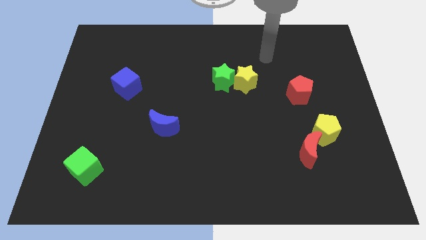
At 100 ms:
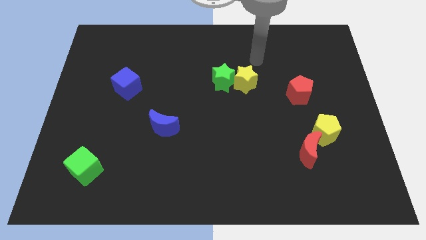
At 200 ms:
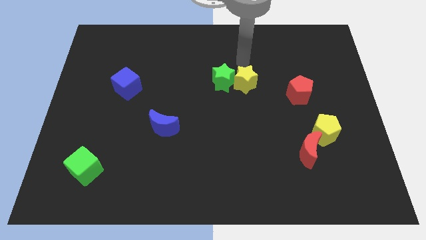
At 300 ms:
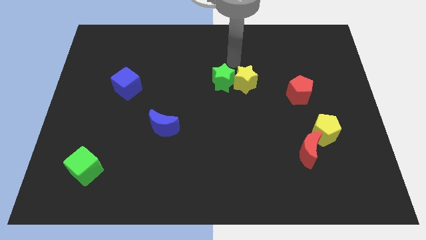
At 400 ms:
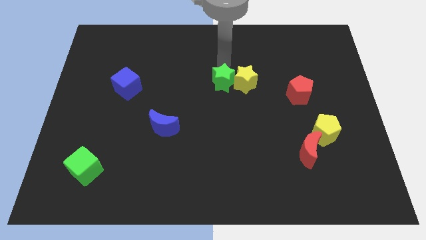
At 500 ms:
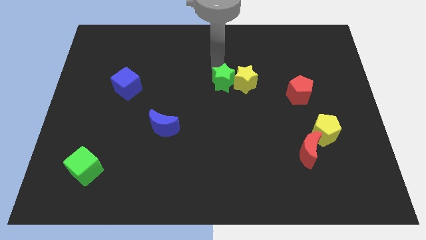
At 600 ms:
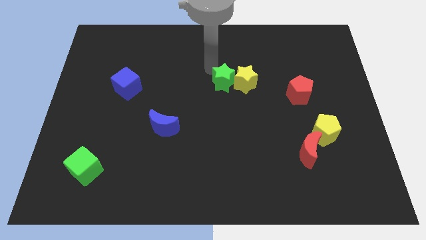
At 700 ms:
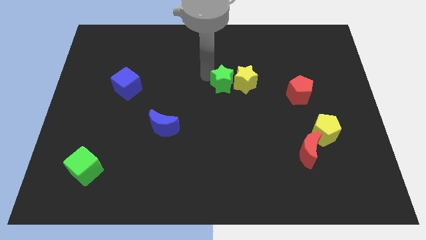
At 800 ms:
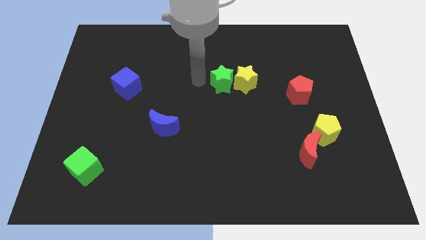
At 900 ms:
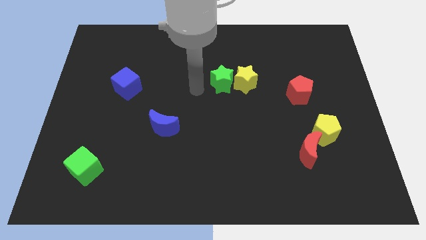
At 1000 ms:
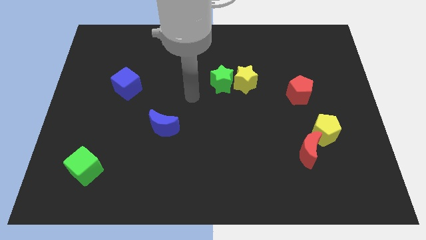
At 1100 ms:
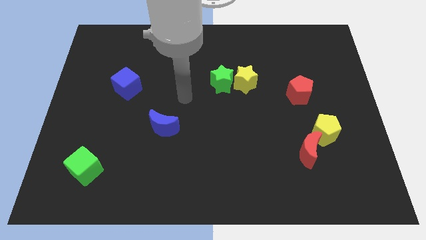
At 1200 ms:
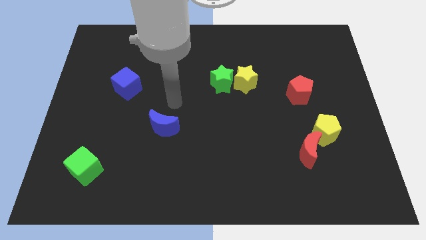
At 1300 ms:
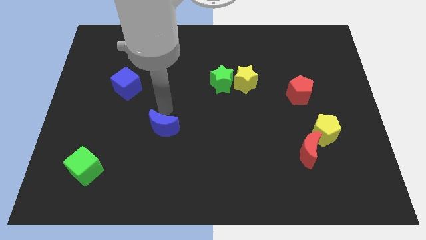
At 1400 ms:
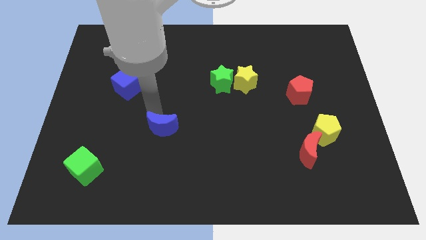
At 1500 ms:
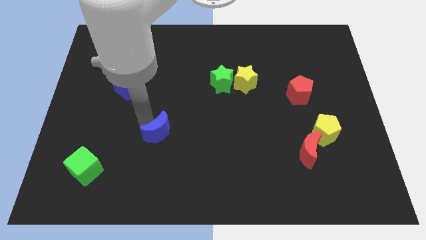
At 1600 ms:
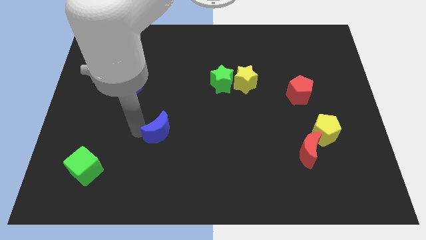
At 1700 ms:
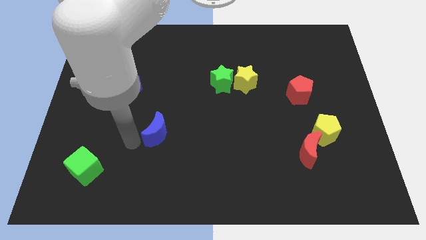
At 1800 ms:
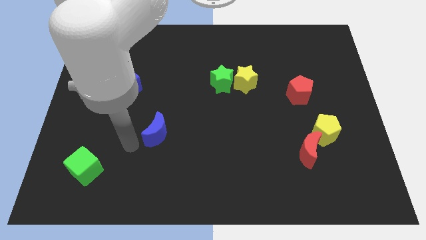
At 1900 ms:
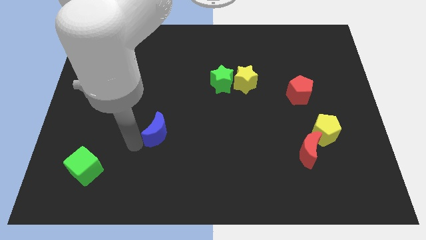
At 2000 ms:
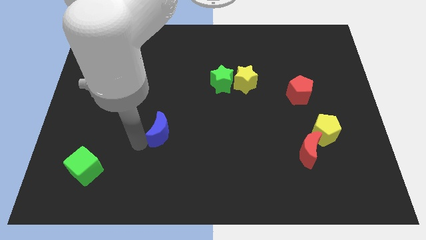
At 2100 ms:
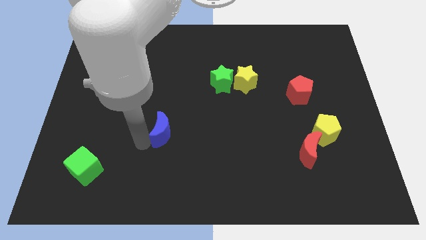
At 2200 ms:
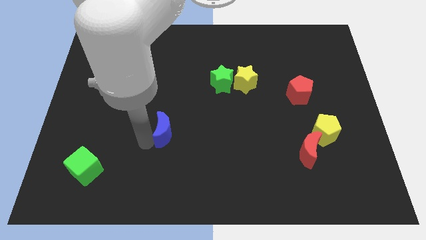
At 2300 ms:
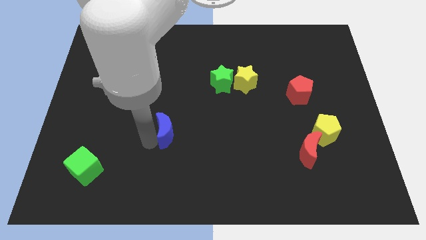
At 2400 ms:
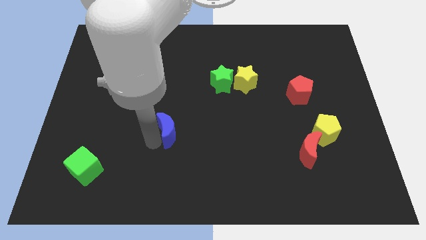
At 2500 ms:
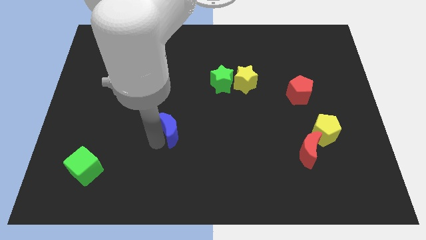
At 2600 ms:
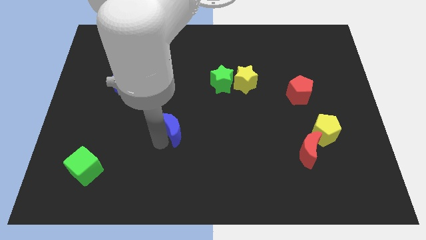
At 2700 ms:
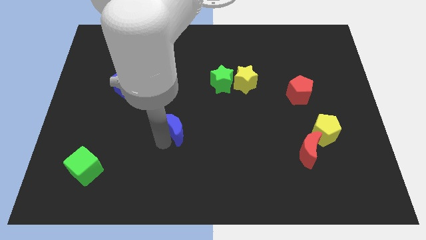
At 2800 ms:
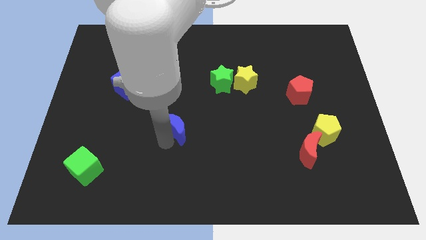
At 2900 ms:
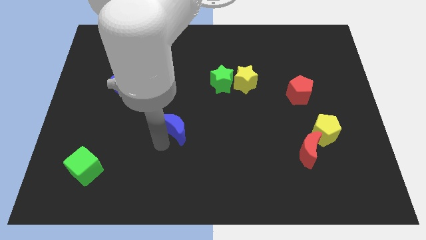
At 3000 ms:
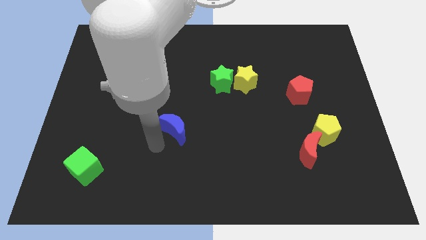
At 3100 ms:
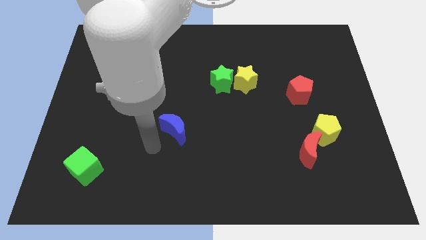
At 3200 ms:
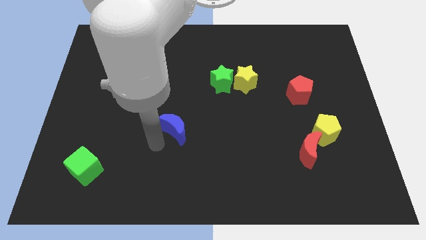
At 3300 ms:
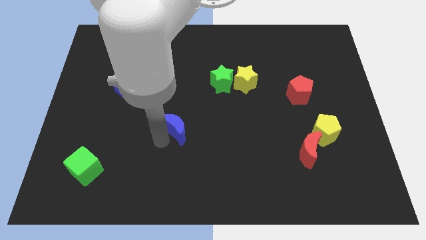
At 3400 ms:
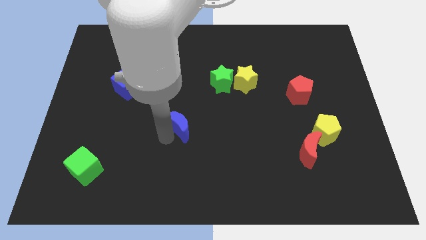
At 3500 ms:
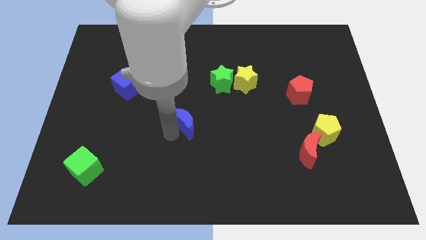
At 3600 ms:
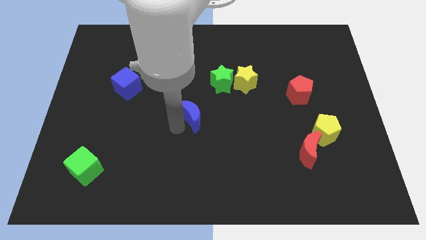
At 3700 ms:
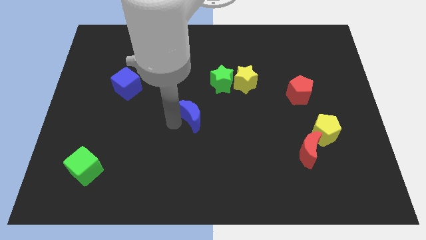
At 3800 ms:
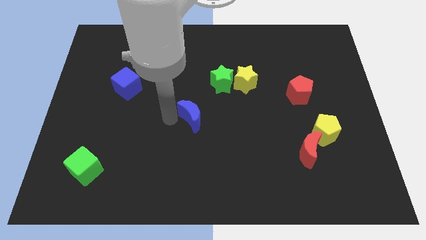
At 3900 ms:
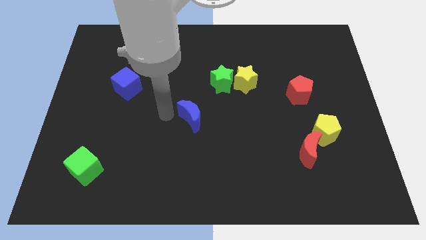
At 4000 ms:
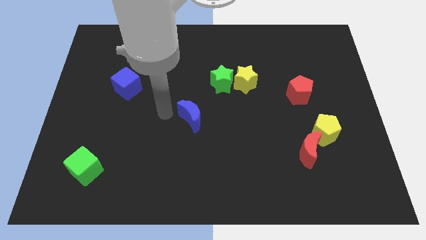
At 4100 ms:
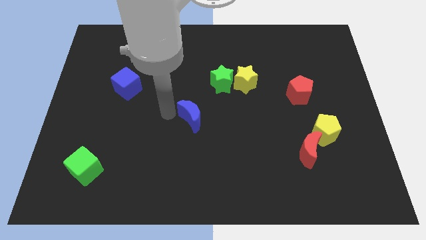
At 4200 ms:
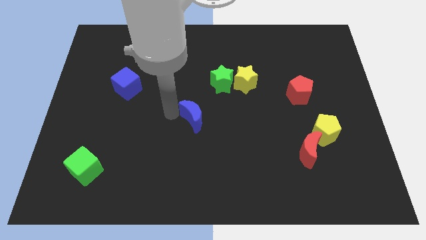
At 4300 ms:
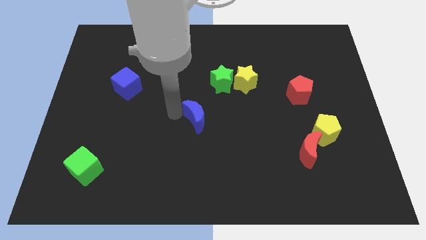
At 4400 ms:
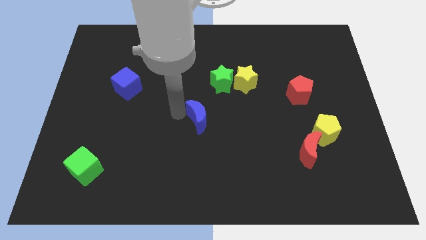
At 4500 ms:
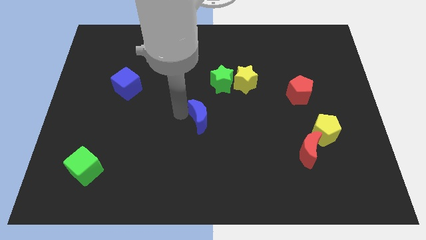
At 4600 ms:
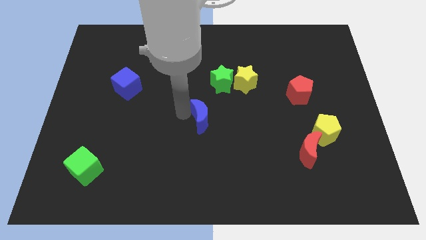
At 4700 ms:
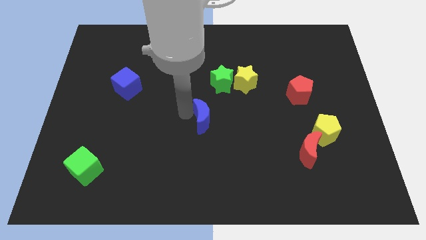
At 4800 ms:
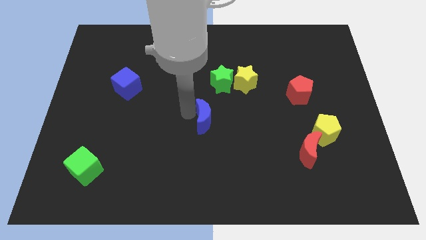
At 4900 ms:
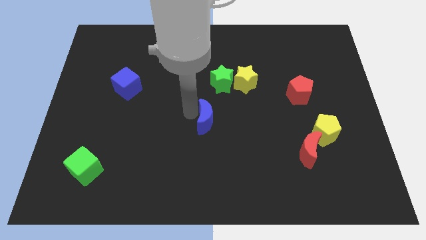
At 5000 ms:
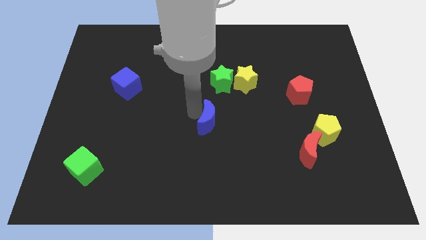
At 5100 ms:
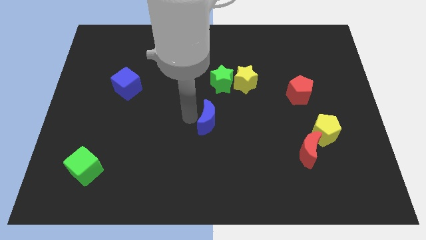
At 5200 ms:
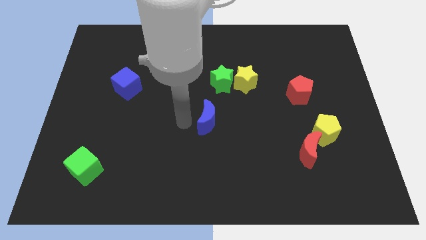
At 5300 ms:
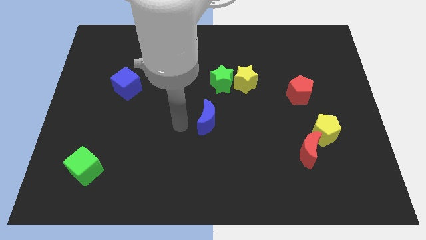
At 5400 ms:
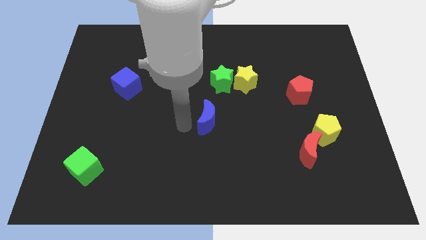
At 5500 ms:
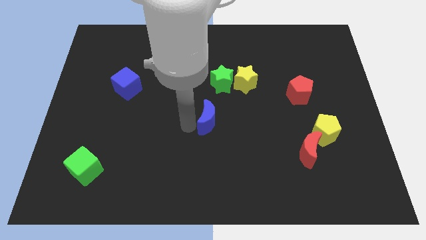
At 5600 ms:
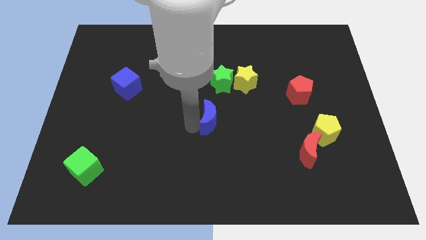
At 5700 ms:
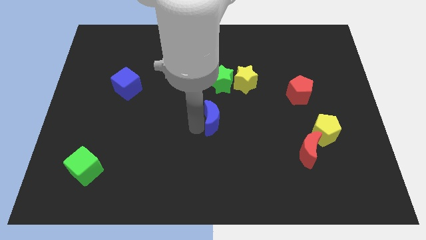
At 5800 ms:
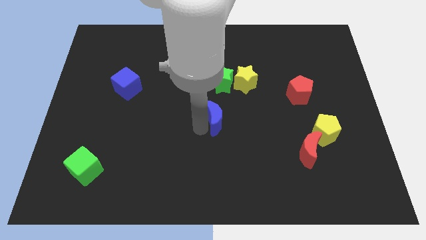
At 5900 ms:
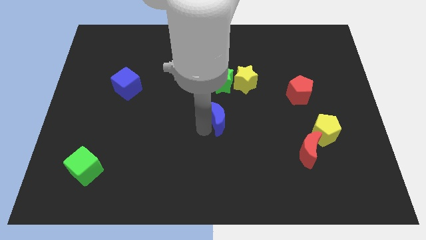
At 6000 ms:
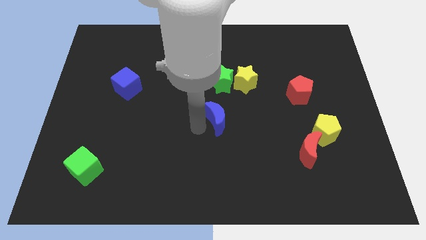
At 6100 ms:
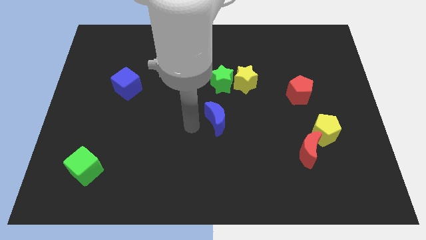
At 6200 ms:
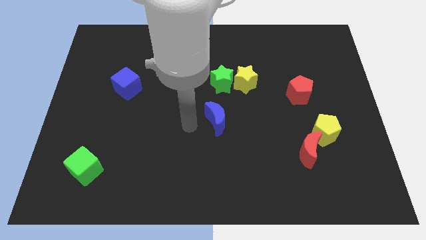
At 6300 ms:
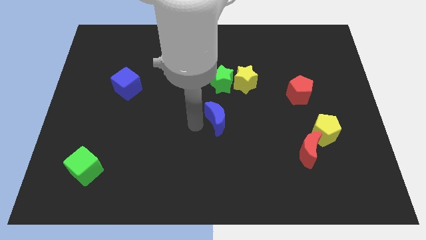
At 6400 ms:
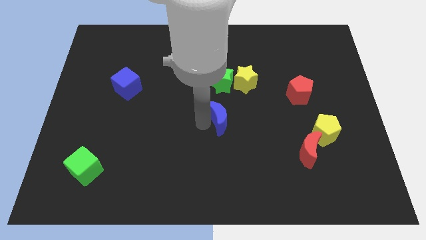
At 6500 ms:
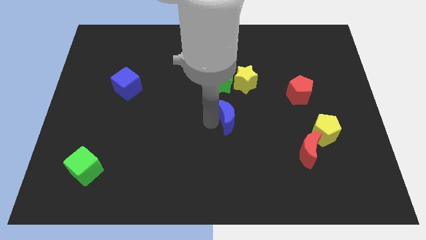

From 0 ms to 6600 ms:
put the blue moon to the bottom side of the yellow star
